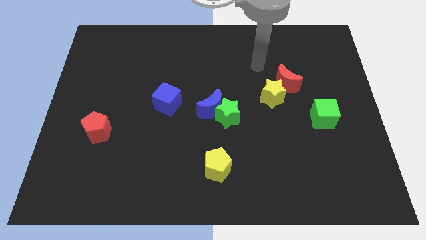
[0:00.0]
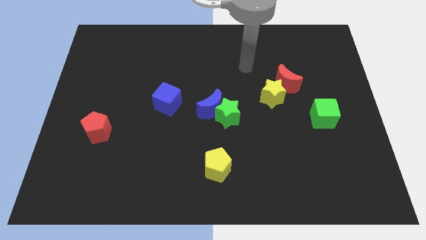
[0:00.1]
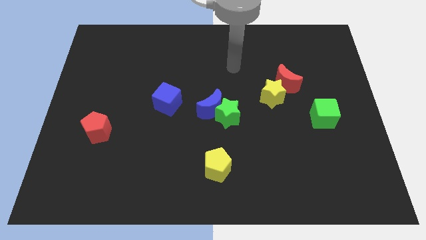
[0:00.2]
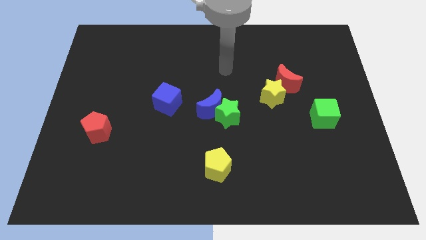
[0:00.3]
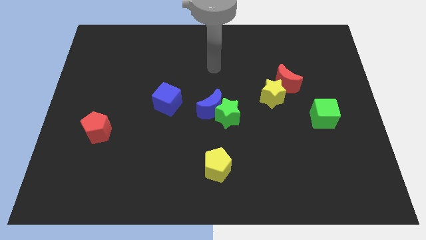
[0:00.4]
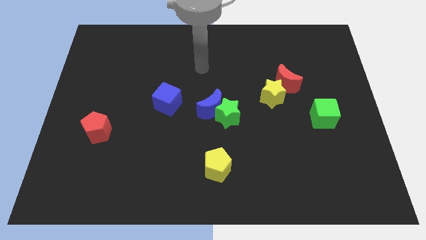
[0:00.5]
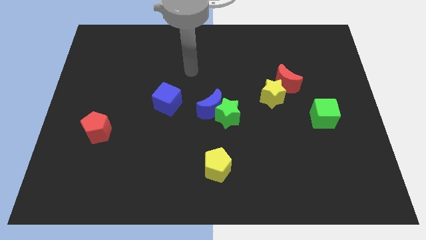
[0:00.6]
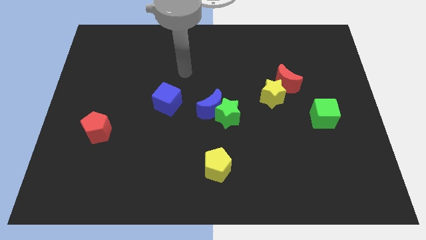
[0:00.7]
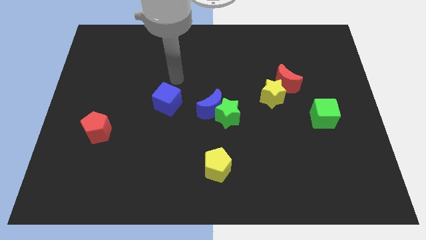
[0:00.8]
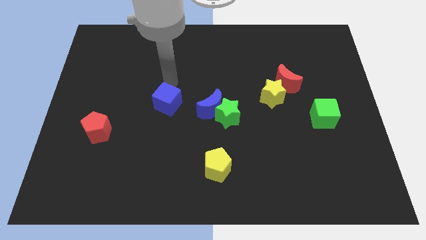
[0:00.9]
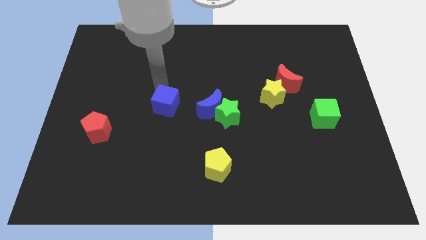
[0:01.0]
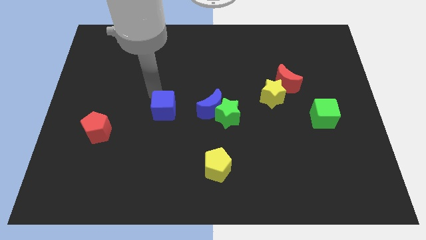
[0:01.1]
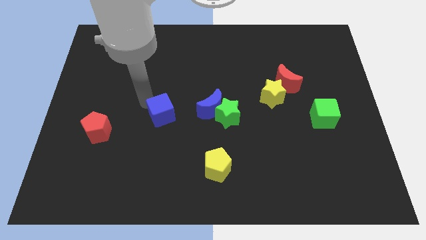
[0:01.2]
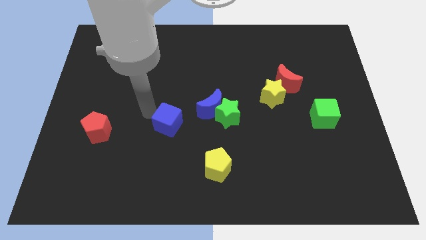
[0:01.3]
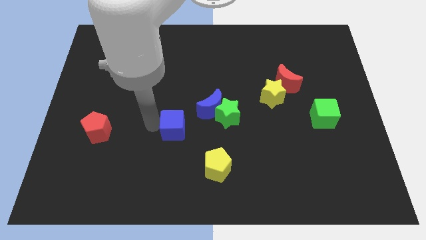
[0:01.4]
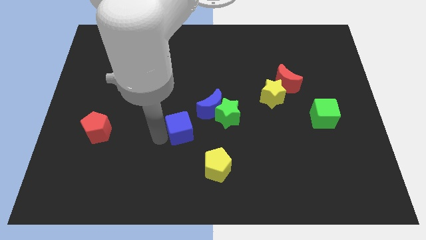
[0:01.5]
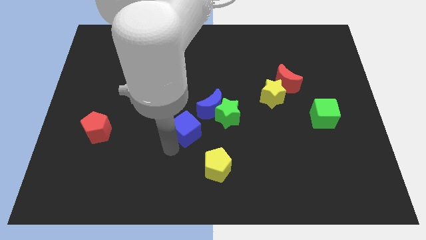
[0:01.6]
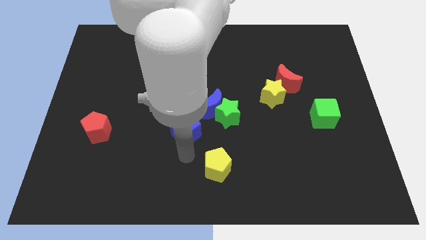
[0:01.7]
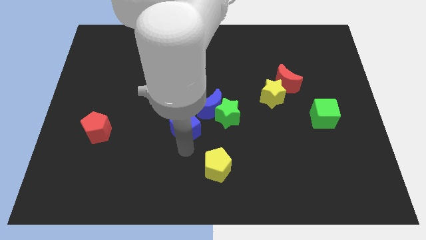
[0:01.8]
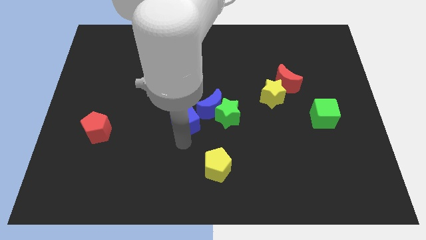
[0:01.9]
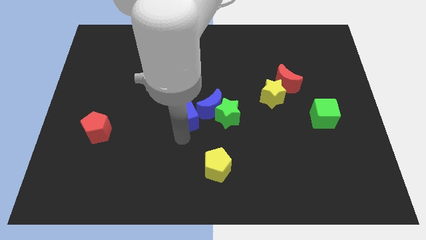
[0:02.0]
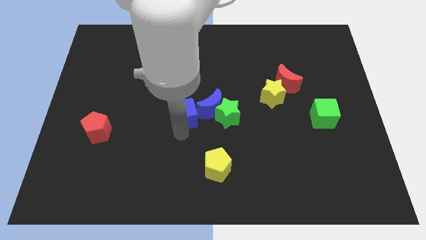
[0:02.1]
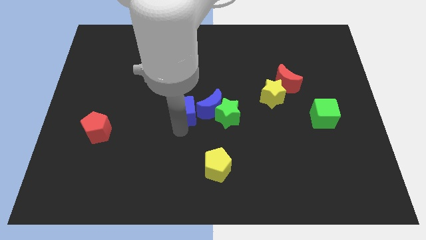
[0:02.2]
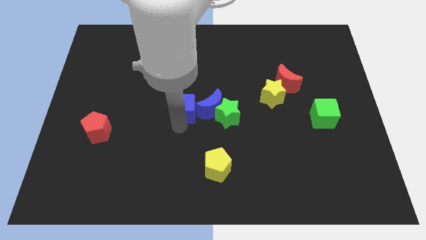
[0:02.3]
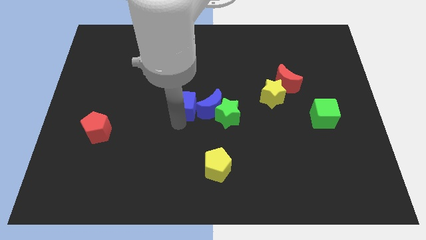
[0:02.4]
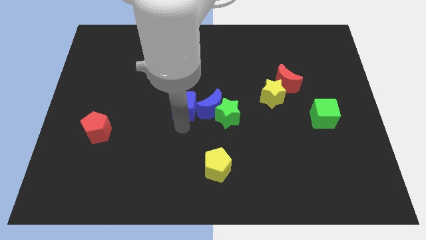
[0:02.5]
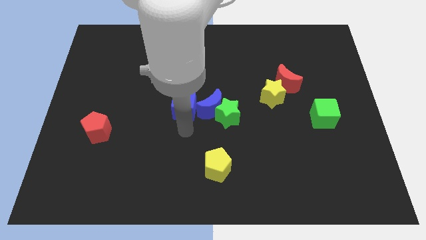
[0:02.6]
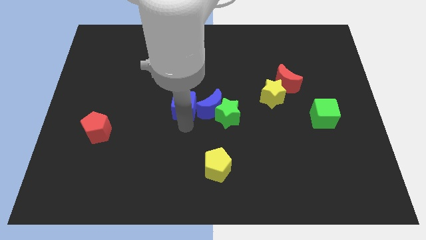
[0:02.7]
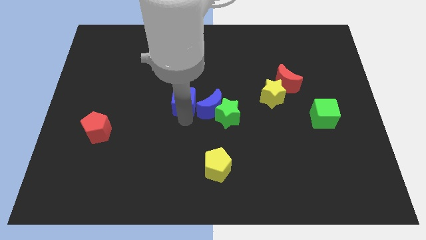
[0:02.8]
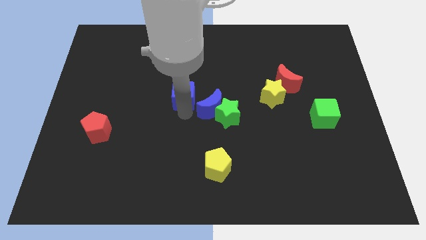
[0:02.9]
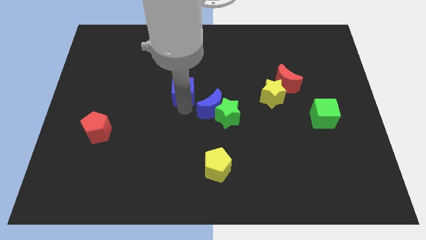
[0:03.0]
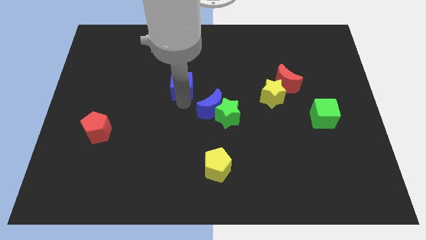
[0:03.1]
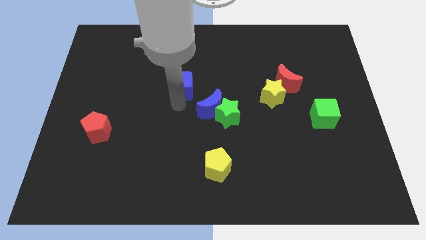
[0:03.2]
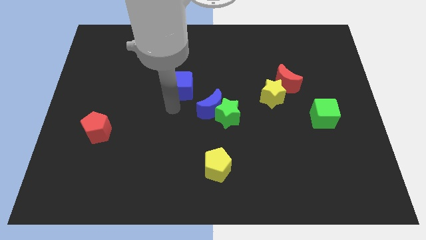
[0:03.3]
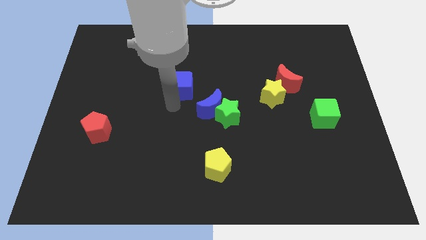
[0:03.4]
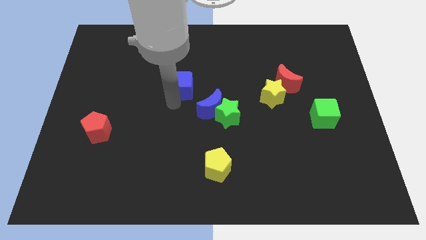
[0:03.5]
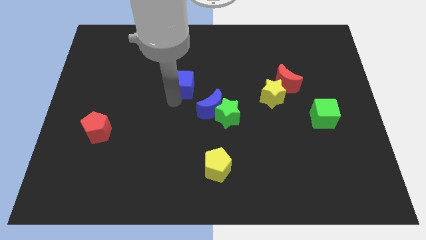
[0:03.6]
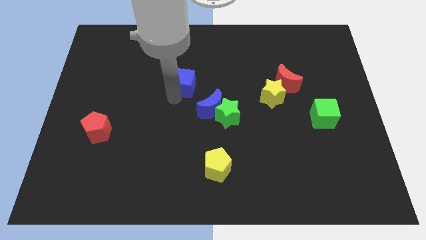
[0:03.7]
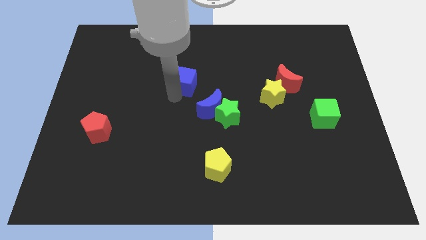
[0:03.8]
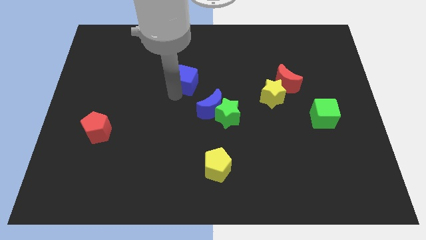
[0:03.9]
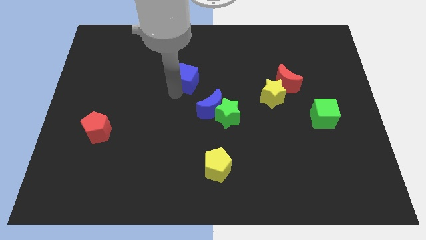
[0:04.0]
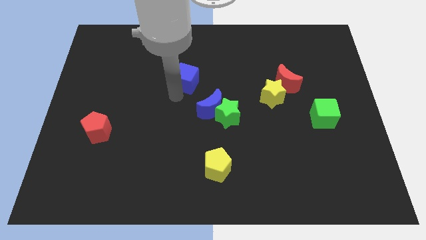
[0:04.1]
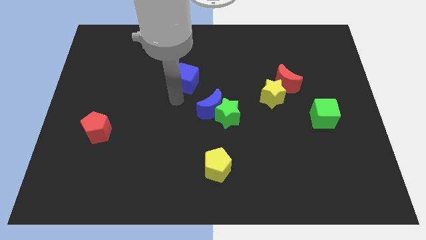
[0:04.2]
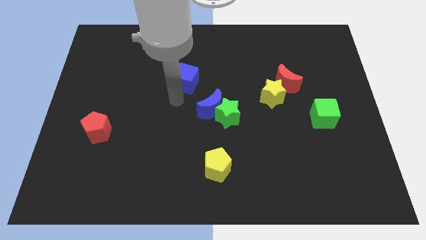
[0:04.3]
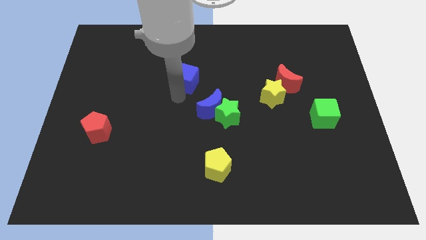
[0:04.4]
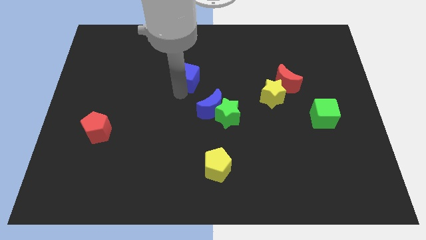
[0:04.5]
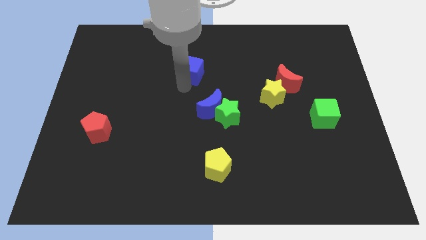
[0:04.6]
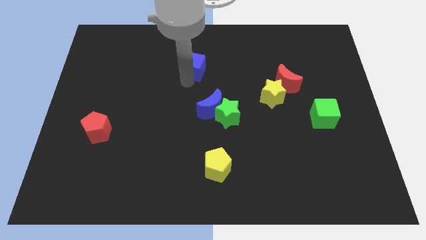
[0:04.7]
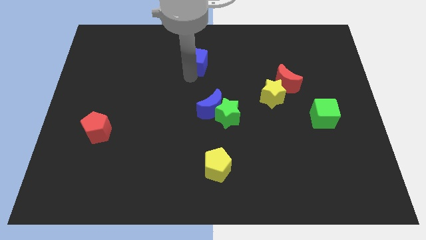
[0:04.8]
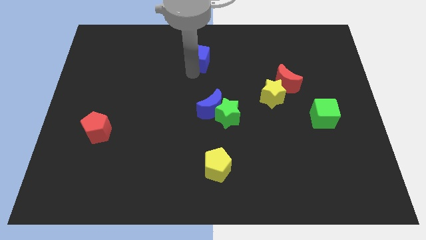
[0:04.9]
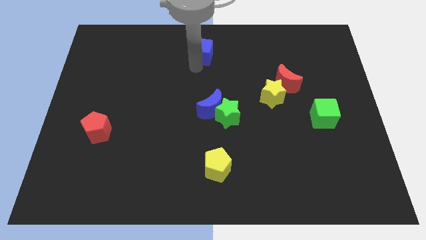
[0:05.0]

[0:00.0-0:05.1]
slide the blue cube to the towards your base

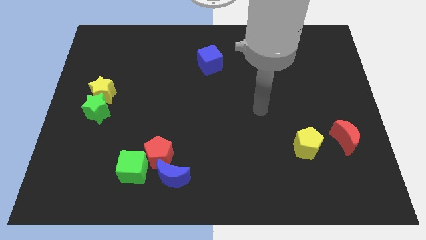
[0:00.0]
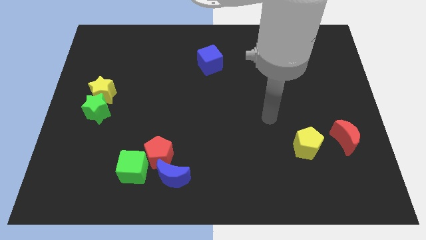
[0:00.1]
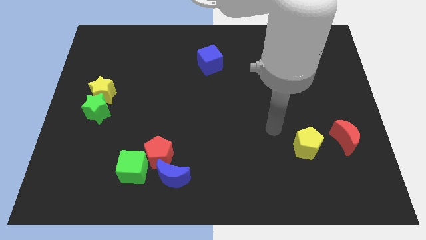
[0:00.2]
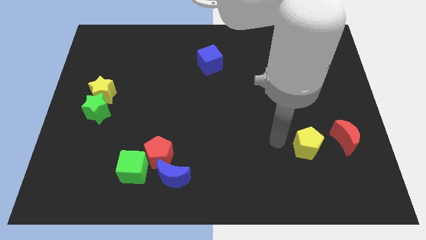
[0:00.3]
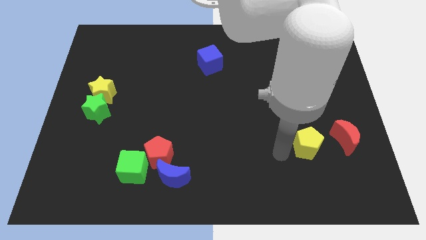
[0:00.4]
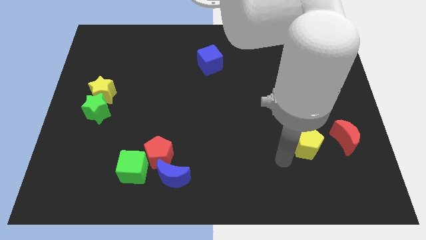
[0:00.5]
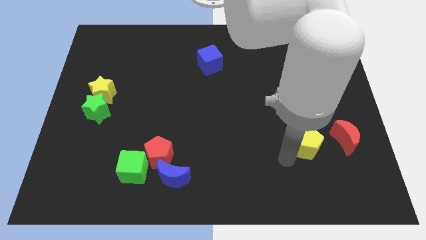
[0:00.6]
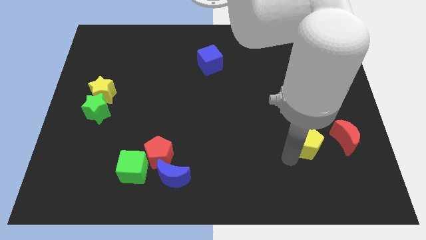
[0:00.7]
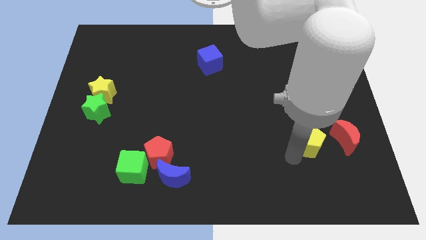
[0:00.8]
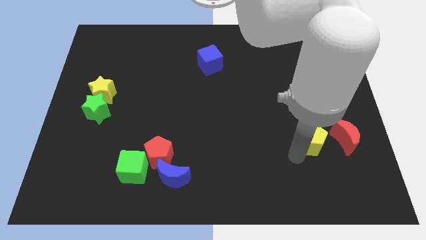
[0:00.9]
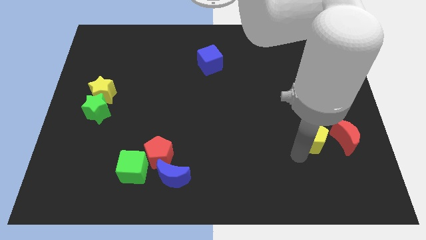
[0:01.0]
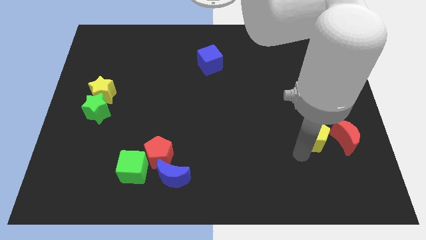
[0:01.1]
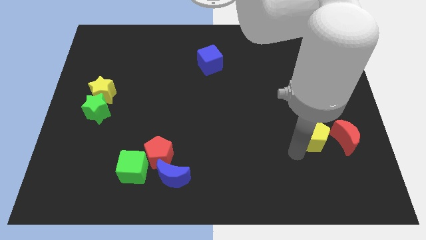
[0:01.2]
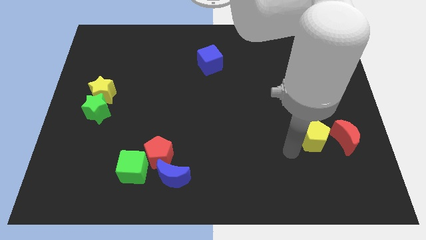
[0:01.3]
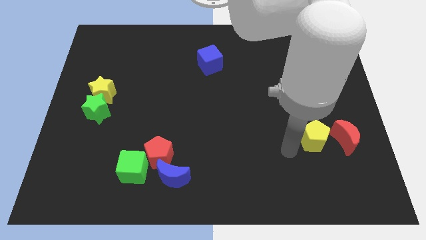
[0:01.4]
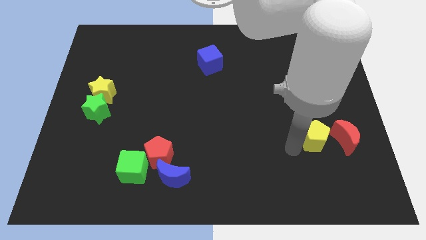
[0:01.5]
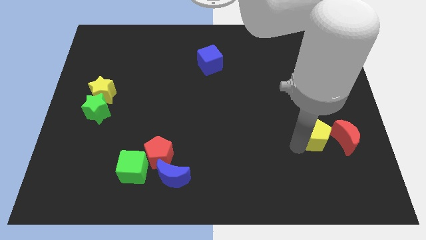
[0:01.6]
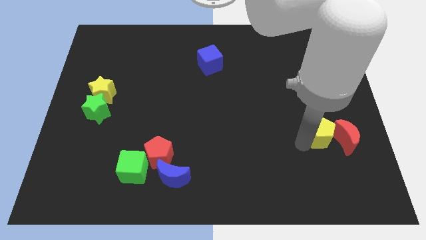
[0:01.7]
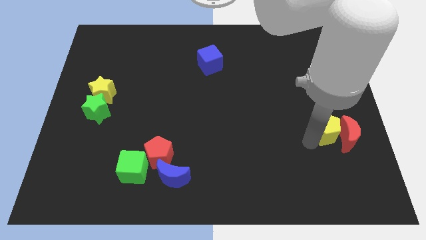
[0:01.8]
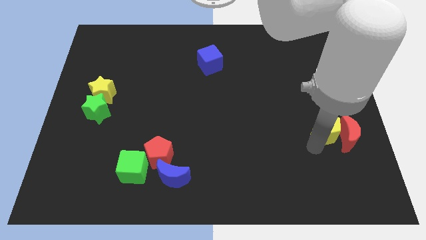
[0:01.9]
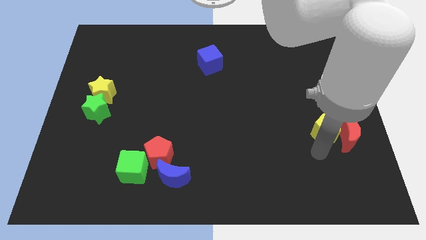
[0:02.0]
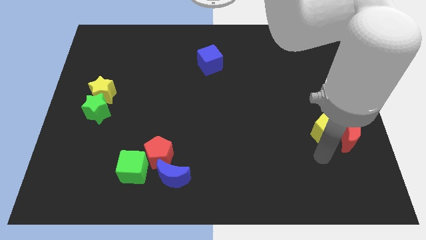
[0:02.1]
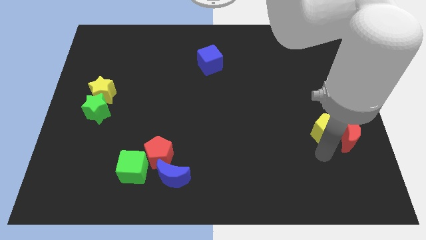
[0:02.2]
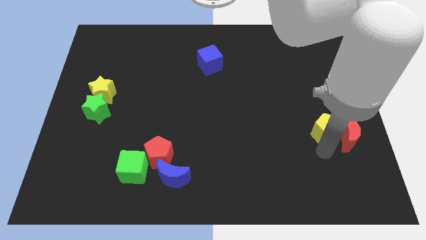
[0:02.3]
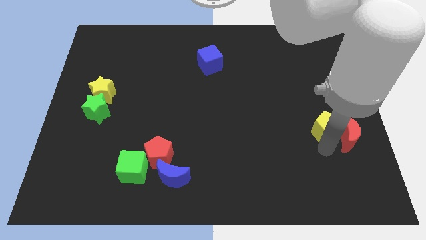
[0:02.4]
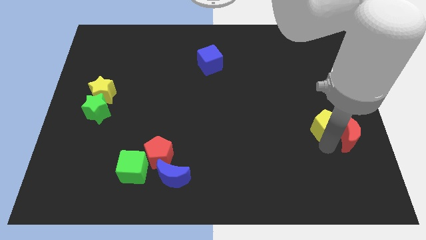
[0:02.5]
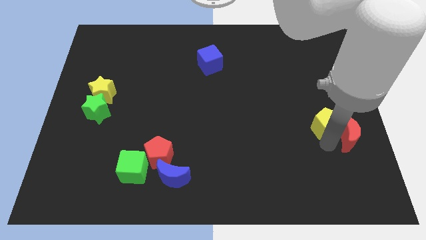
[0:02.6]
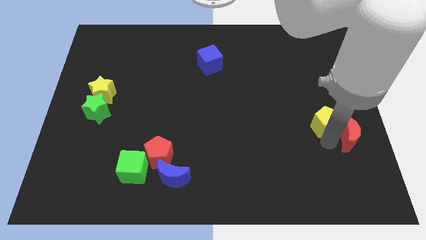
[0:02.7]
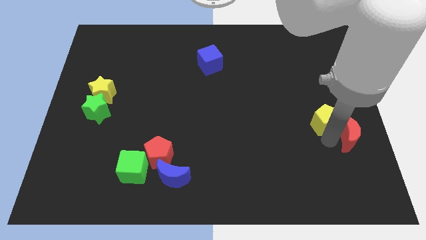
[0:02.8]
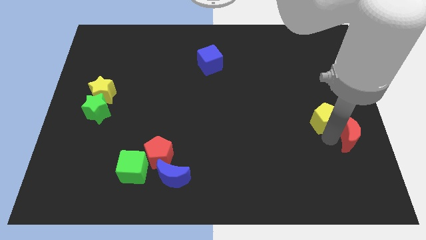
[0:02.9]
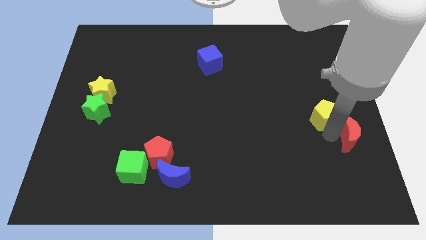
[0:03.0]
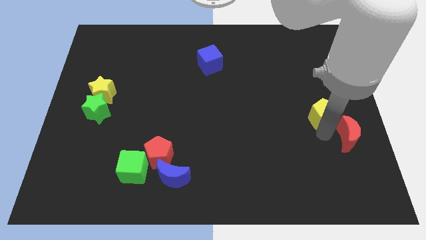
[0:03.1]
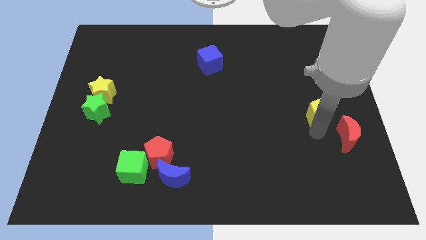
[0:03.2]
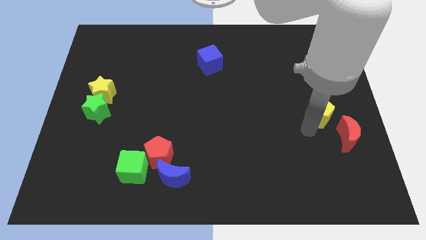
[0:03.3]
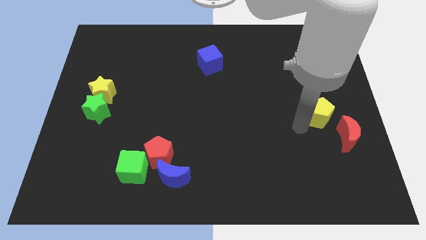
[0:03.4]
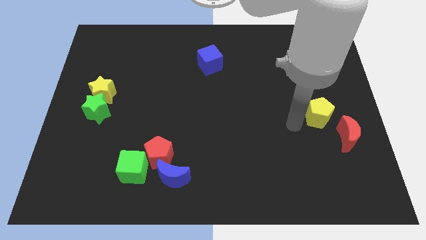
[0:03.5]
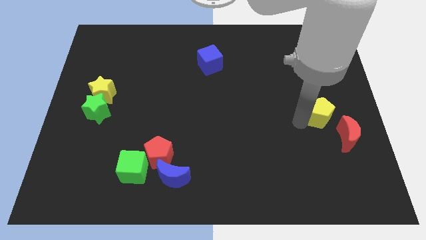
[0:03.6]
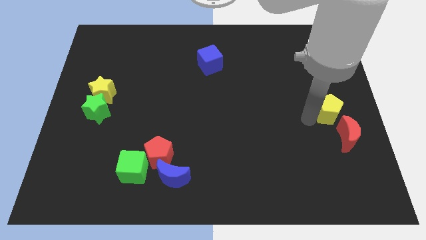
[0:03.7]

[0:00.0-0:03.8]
slide the yellow pentagon to the center right
